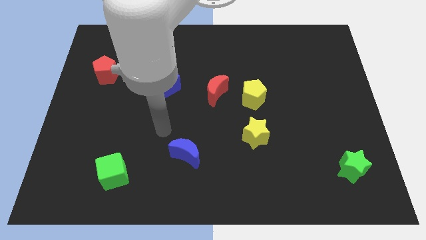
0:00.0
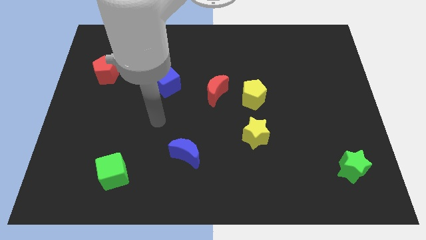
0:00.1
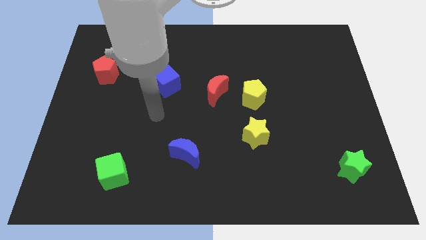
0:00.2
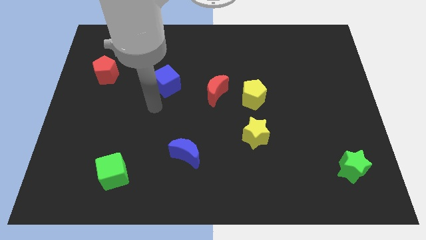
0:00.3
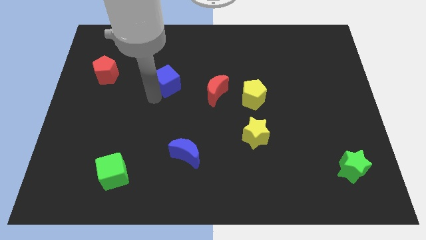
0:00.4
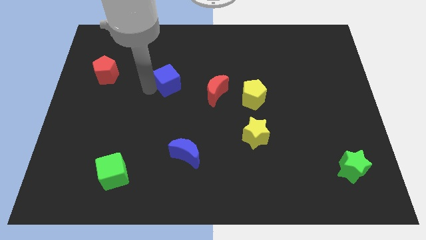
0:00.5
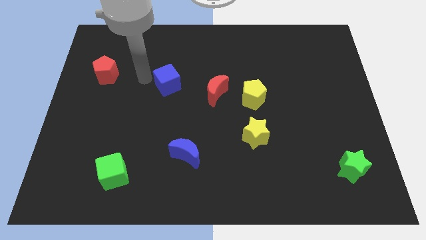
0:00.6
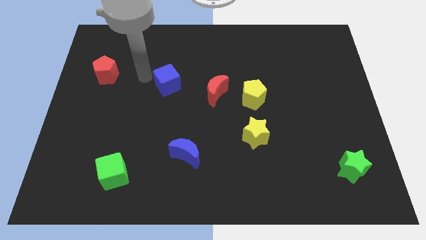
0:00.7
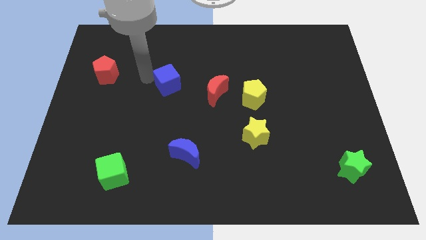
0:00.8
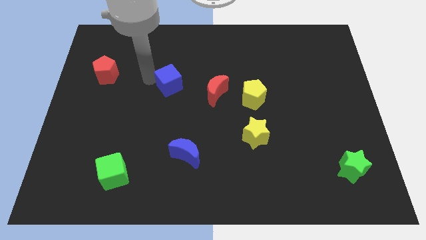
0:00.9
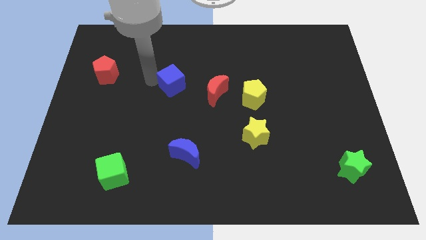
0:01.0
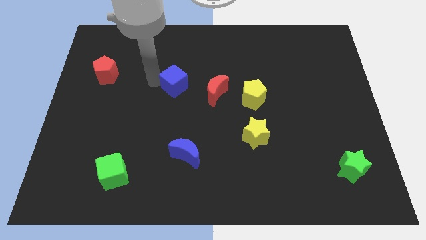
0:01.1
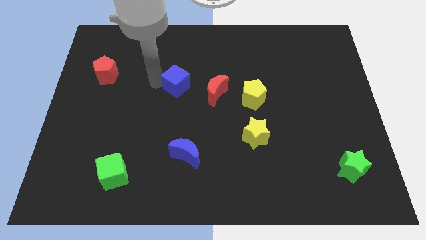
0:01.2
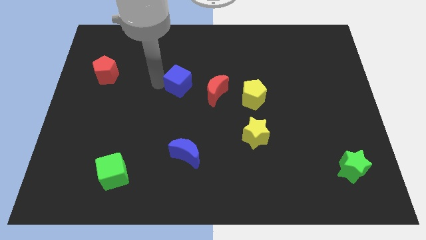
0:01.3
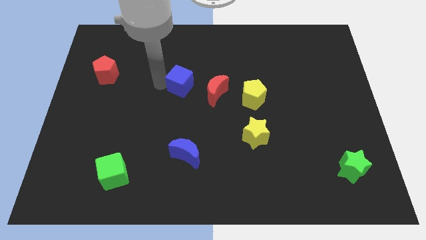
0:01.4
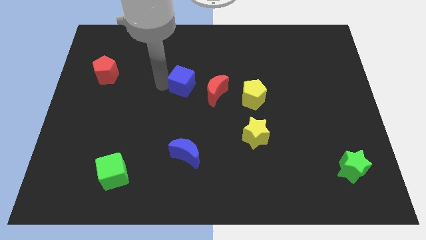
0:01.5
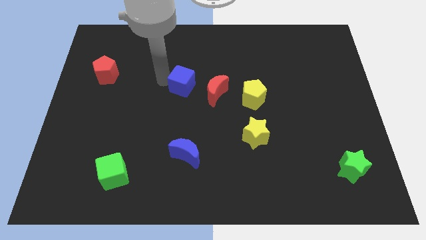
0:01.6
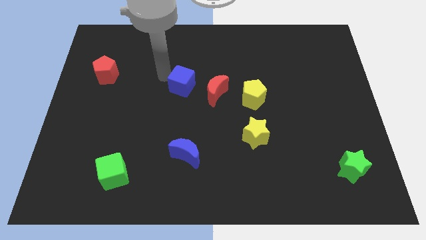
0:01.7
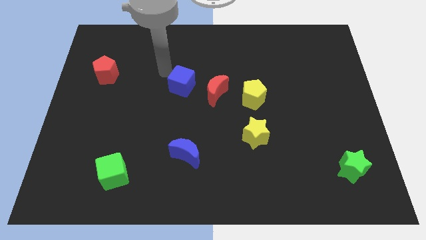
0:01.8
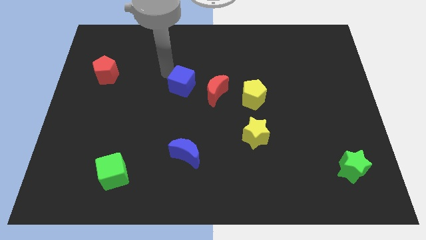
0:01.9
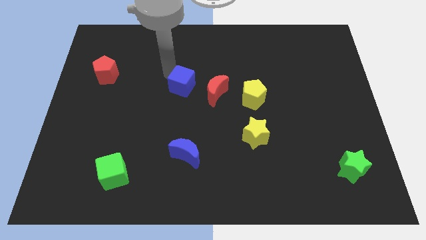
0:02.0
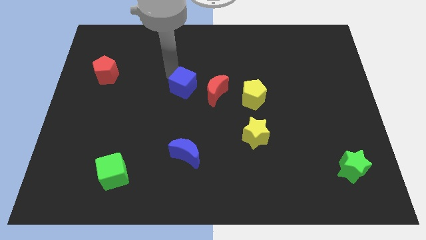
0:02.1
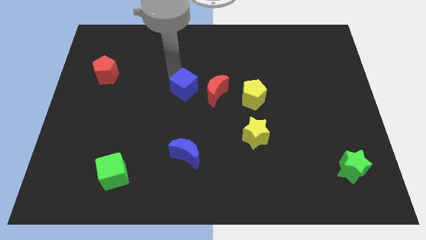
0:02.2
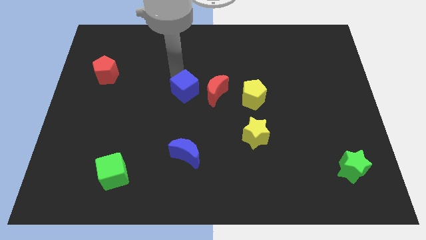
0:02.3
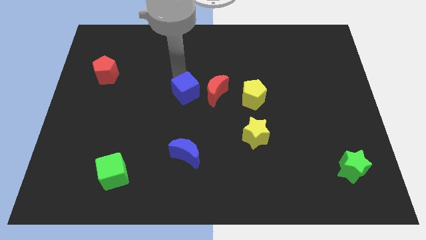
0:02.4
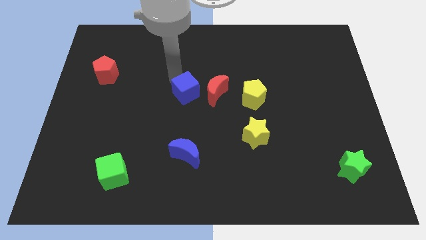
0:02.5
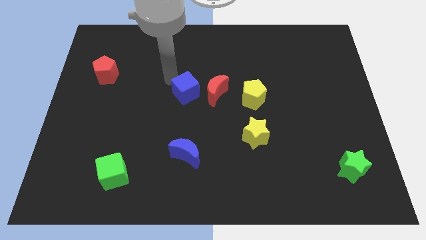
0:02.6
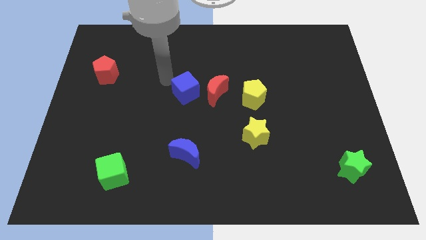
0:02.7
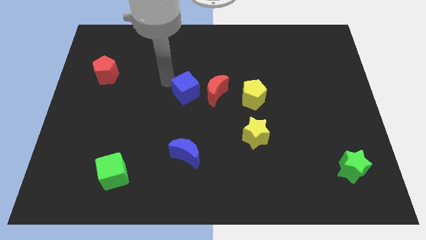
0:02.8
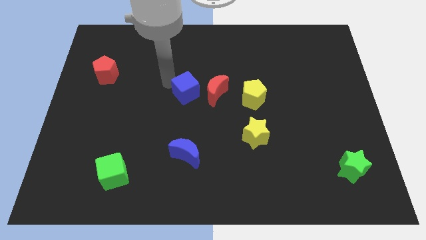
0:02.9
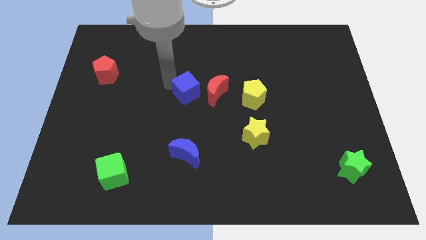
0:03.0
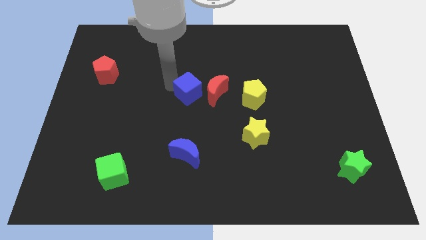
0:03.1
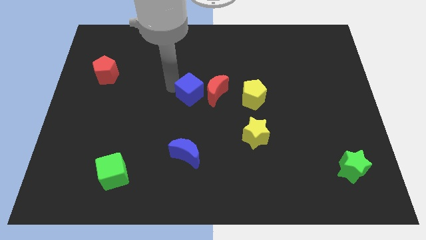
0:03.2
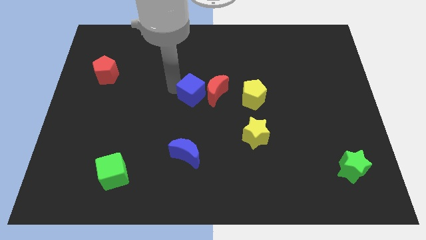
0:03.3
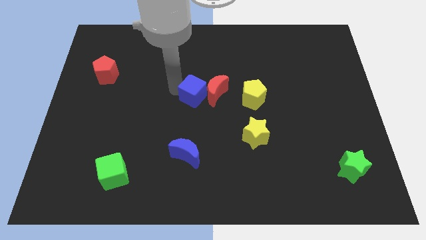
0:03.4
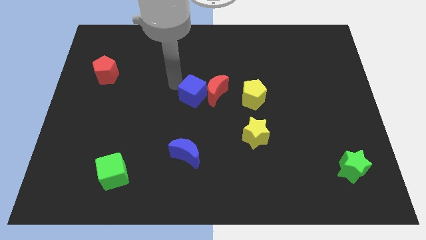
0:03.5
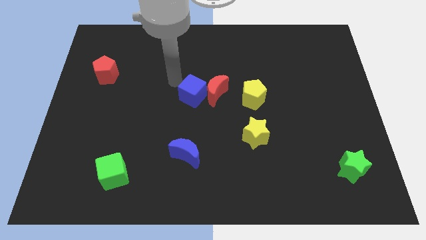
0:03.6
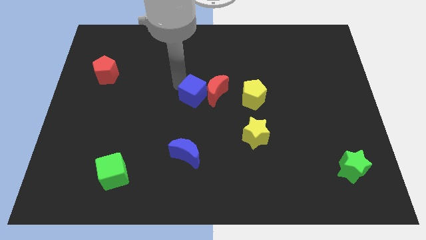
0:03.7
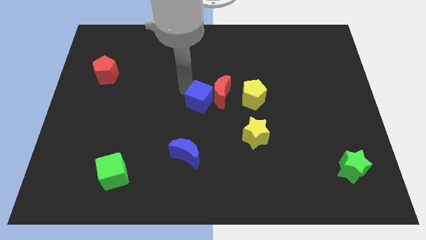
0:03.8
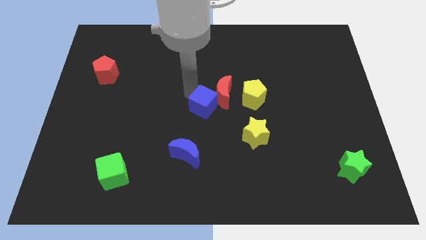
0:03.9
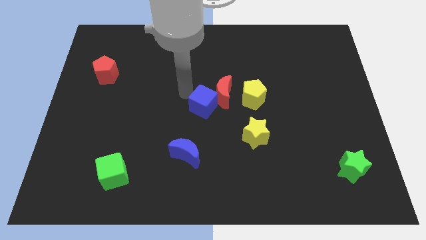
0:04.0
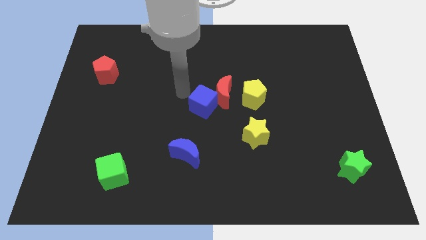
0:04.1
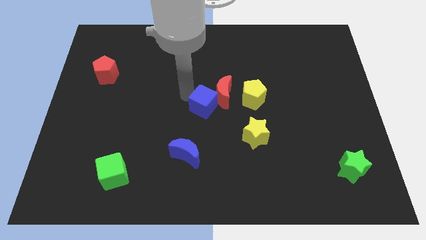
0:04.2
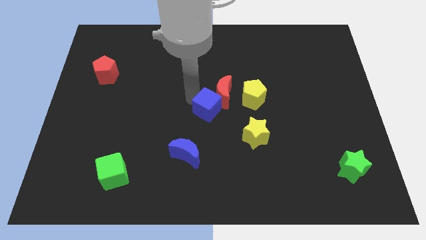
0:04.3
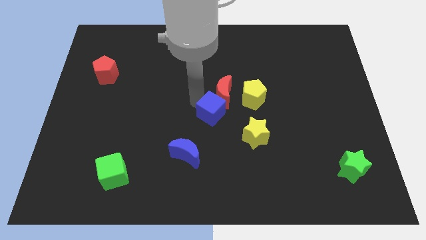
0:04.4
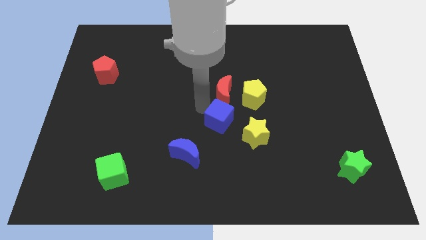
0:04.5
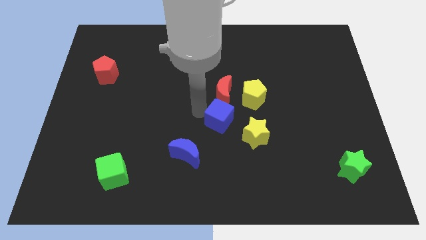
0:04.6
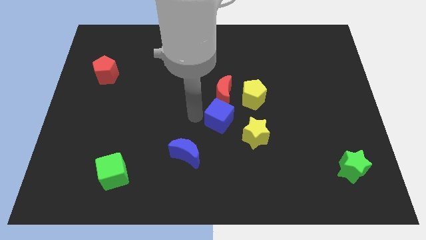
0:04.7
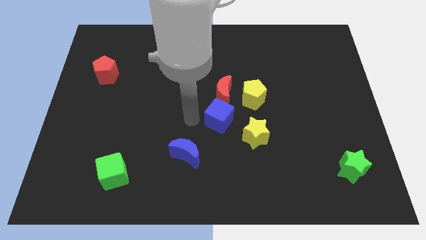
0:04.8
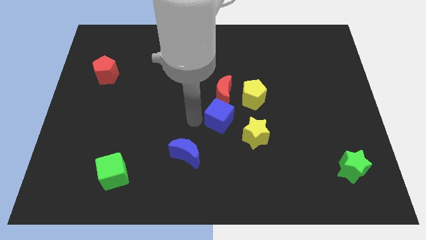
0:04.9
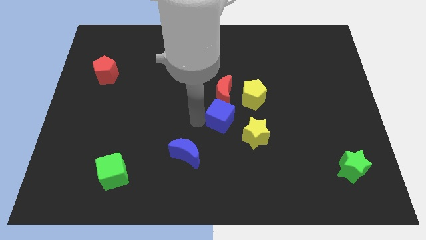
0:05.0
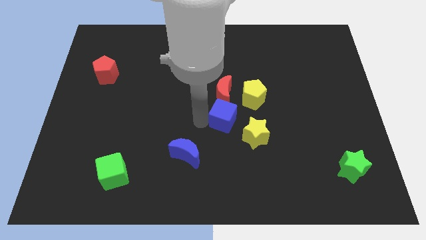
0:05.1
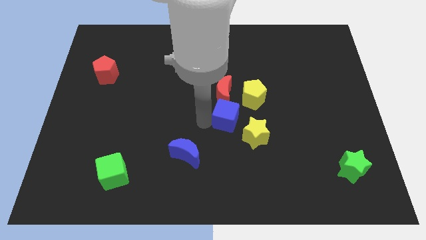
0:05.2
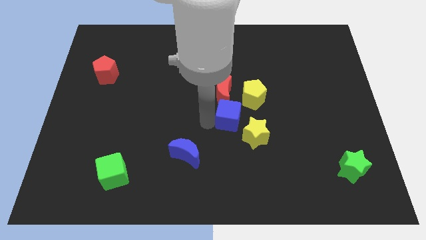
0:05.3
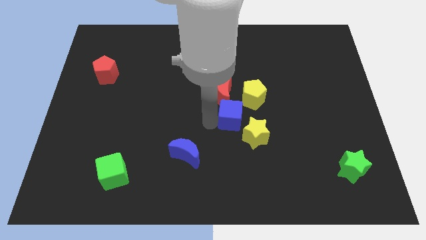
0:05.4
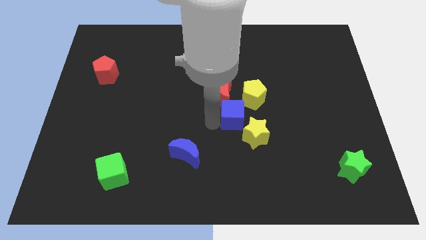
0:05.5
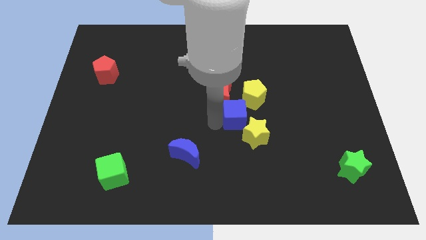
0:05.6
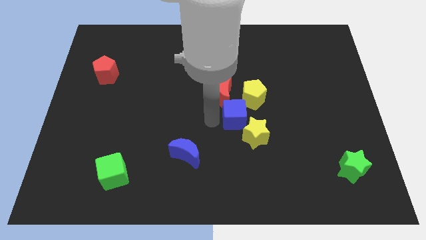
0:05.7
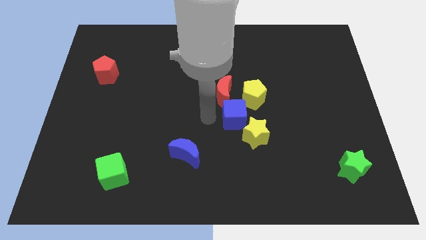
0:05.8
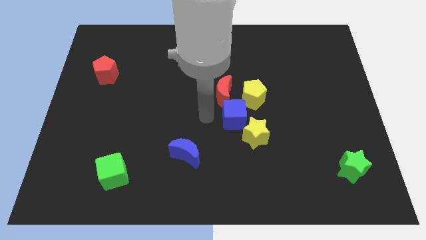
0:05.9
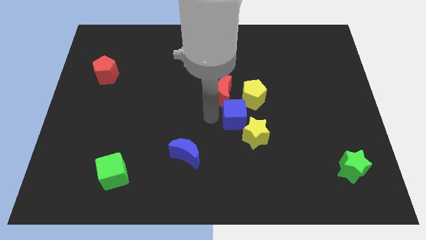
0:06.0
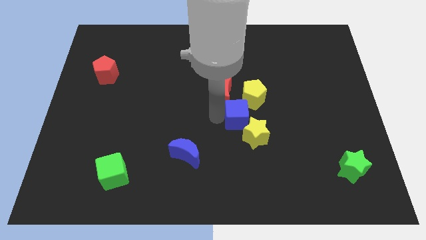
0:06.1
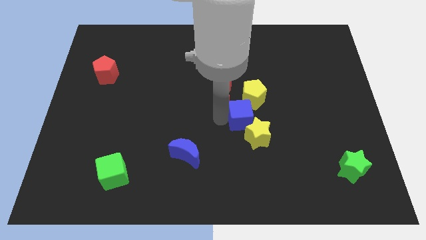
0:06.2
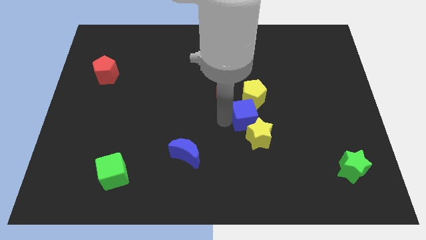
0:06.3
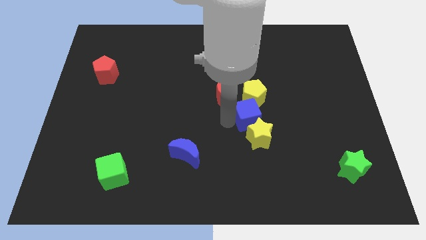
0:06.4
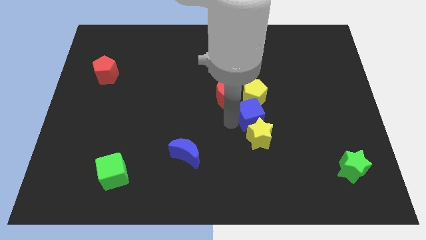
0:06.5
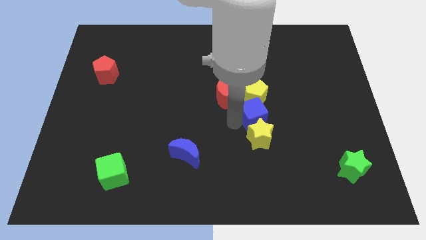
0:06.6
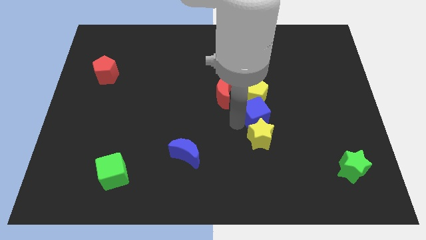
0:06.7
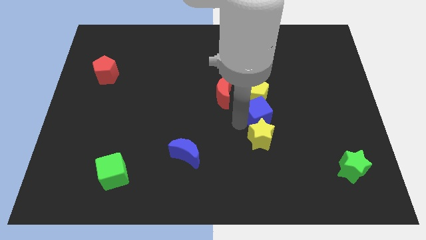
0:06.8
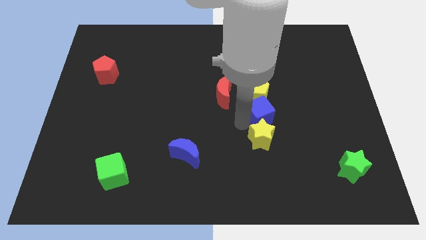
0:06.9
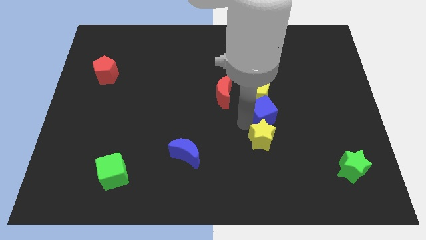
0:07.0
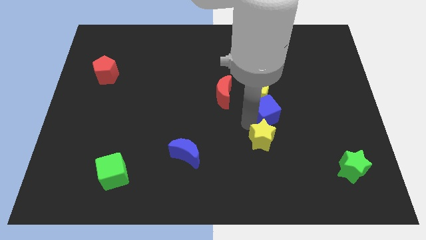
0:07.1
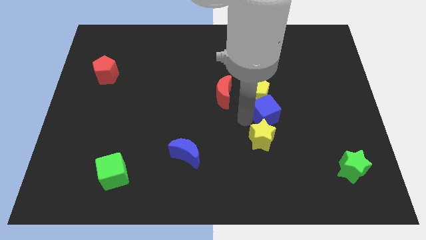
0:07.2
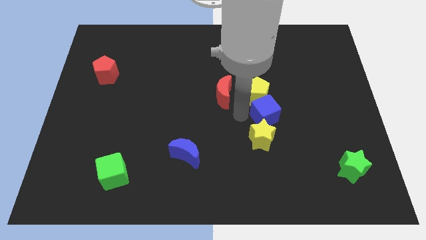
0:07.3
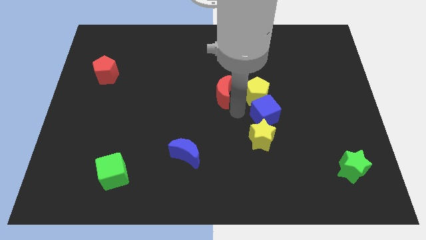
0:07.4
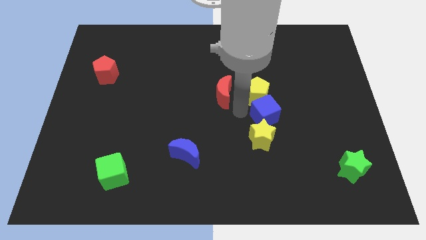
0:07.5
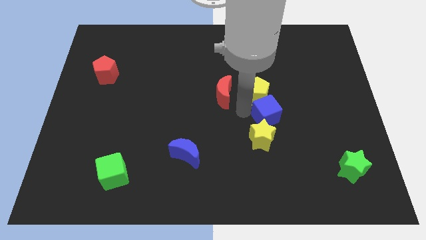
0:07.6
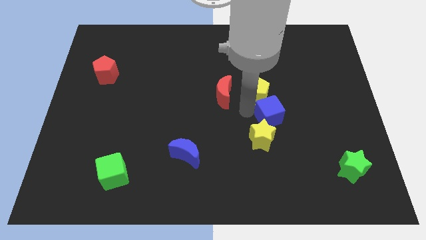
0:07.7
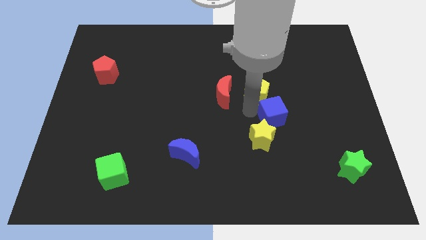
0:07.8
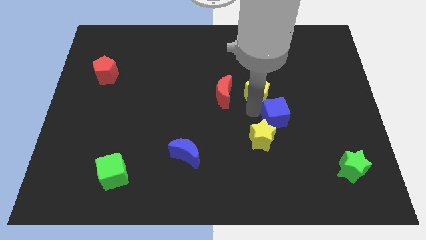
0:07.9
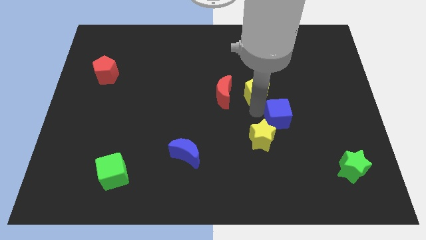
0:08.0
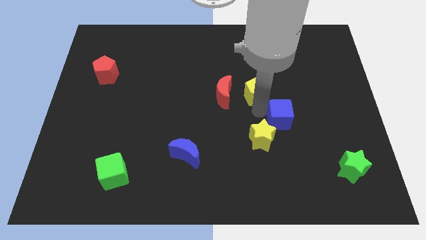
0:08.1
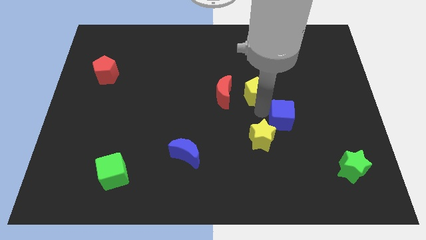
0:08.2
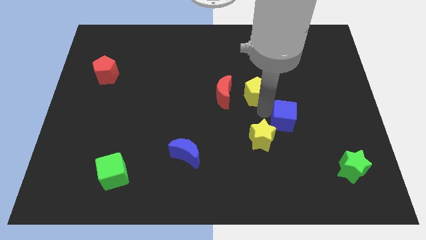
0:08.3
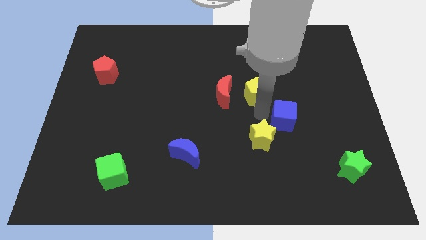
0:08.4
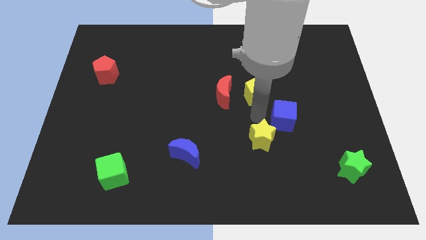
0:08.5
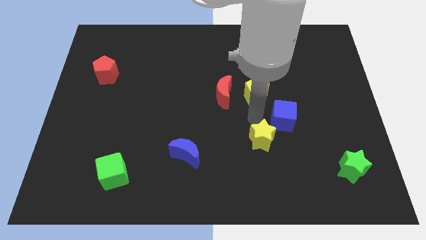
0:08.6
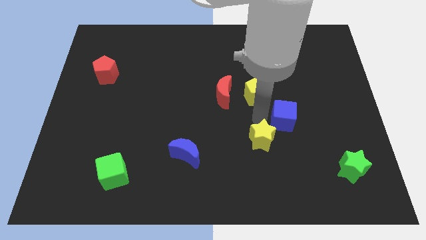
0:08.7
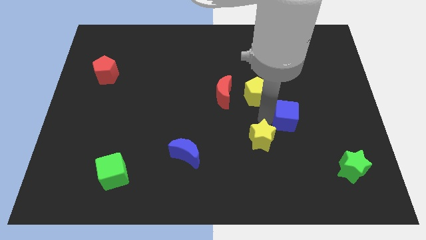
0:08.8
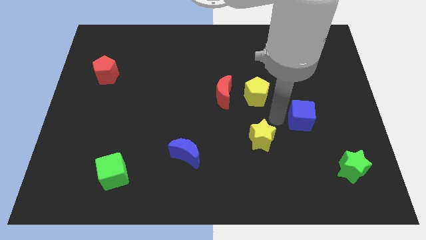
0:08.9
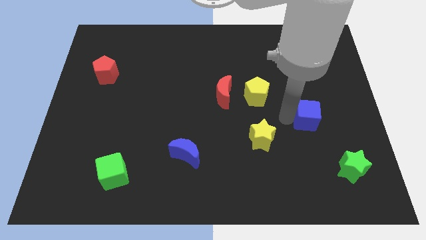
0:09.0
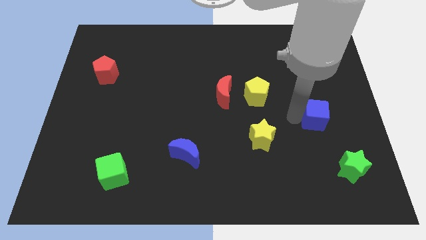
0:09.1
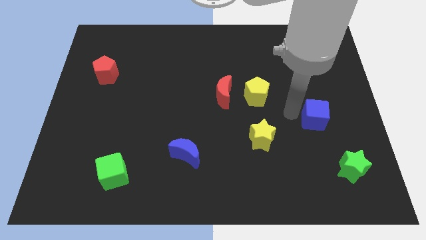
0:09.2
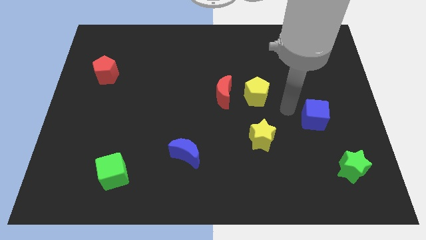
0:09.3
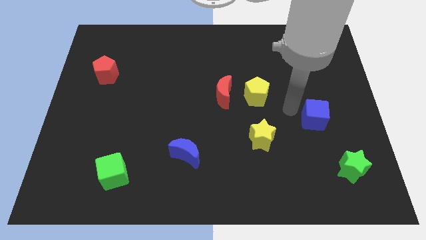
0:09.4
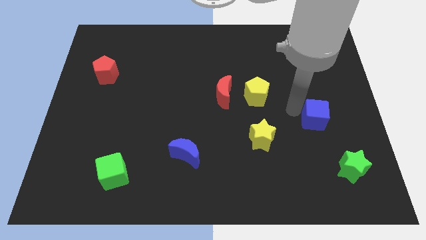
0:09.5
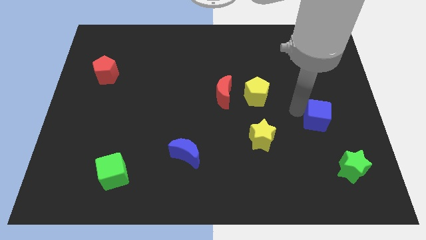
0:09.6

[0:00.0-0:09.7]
push the blue cube to the top of the green star
